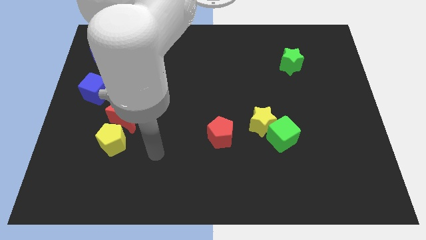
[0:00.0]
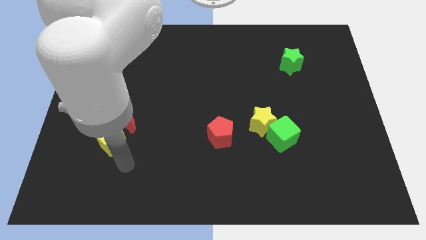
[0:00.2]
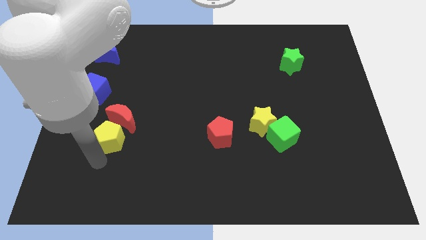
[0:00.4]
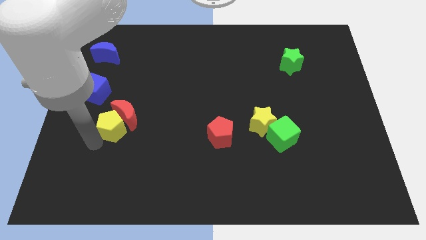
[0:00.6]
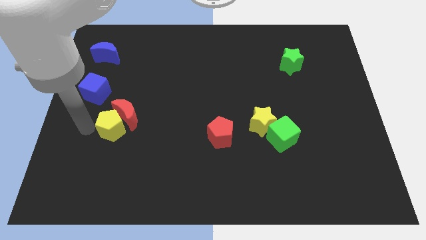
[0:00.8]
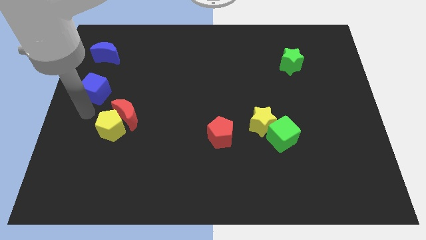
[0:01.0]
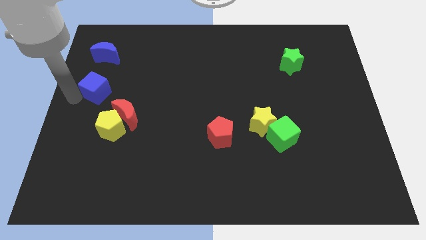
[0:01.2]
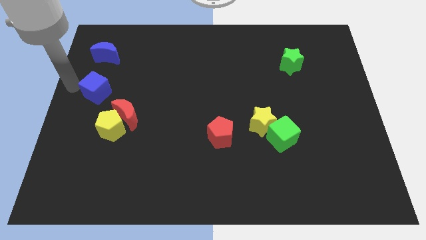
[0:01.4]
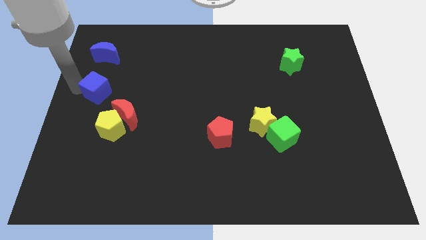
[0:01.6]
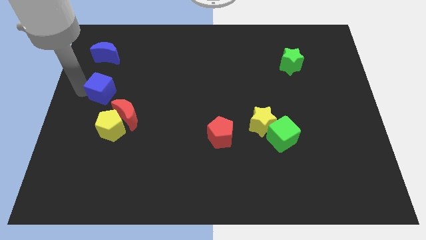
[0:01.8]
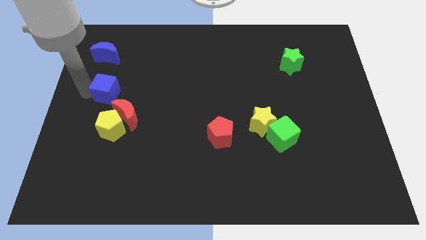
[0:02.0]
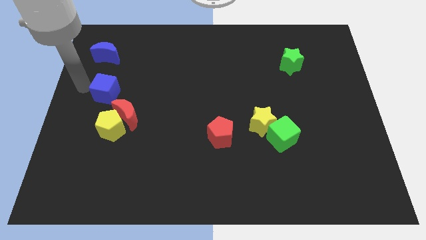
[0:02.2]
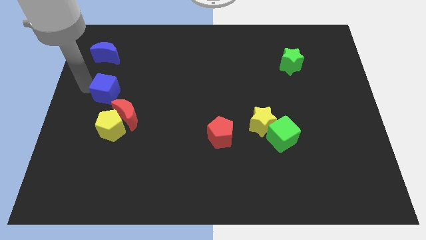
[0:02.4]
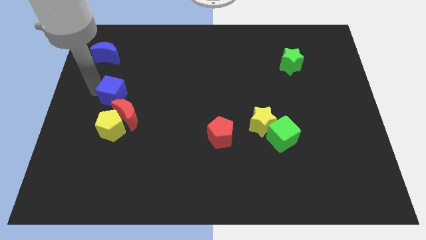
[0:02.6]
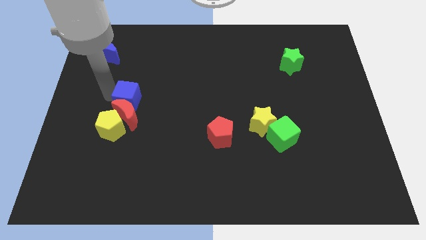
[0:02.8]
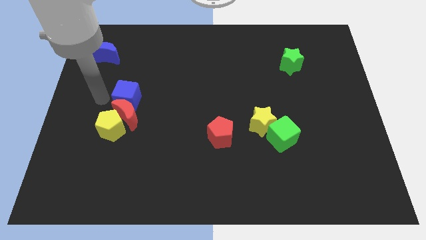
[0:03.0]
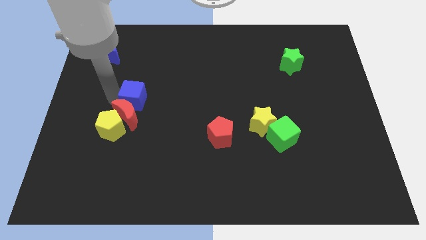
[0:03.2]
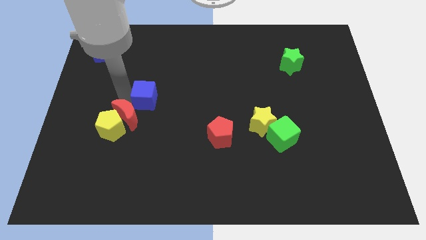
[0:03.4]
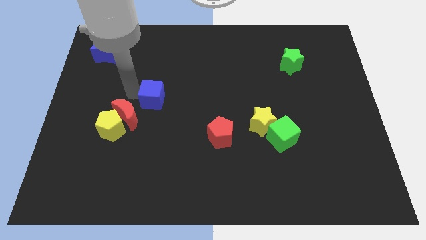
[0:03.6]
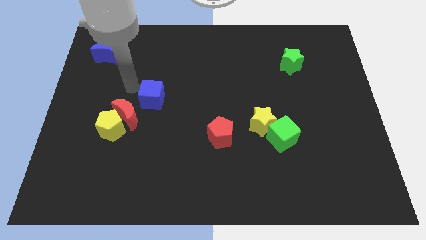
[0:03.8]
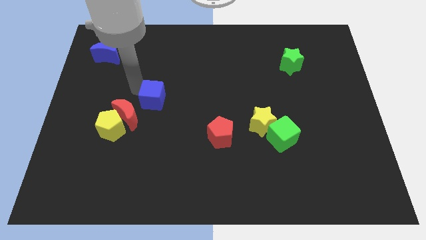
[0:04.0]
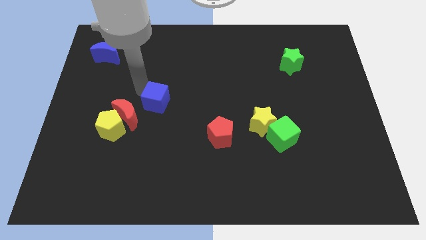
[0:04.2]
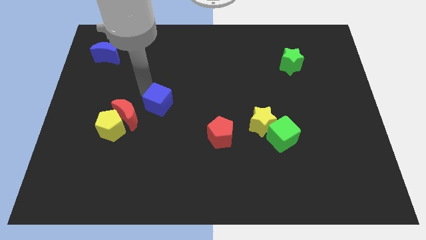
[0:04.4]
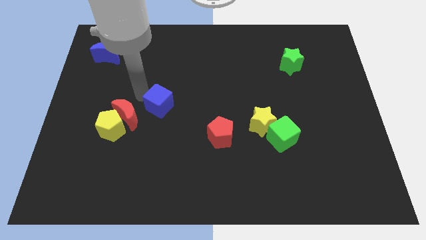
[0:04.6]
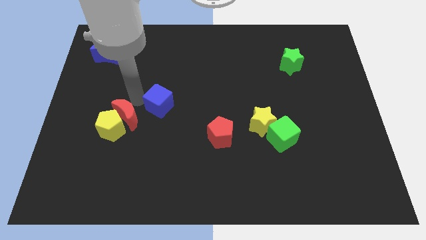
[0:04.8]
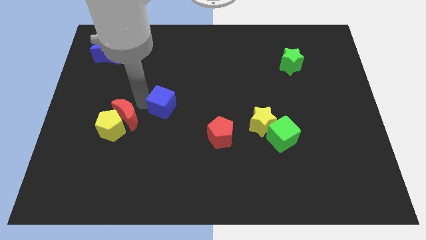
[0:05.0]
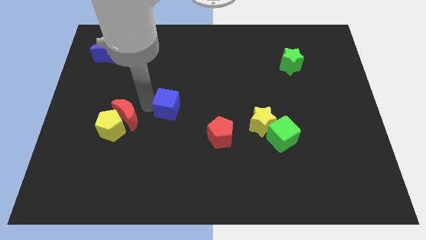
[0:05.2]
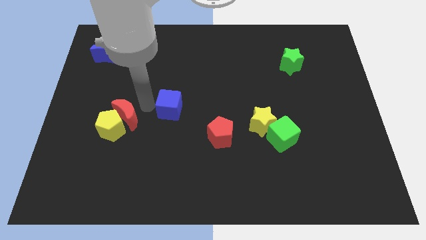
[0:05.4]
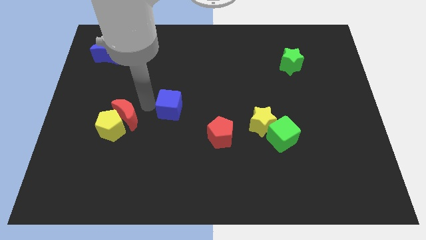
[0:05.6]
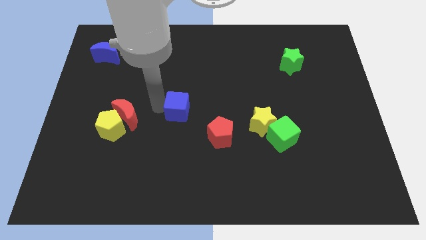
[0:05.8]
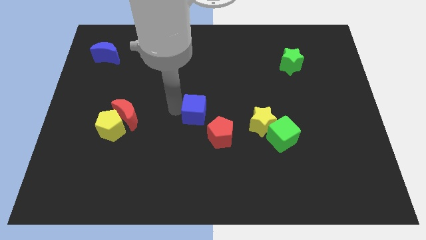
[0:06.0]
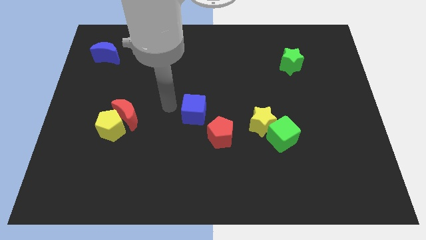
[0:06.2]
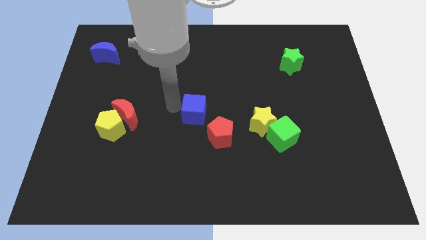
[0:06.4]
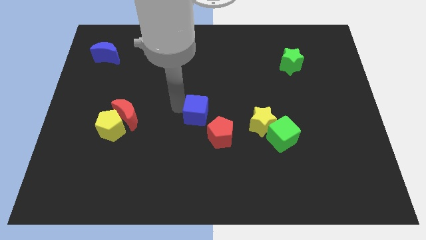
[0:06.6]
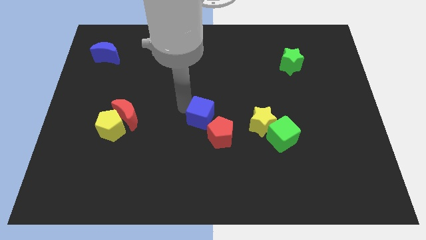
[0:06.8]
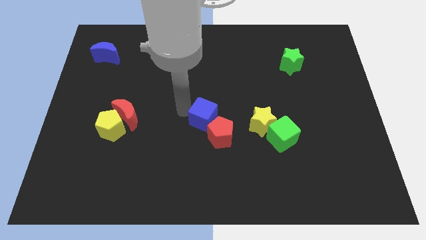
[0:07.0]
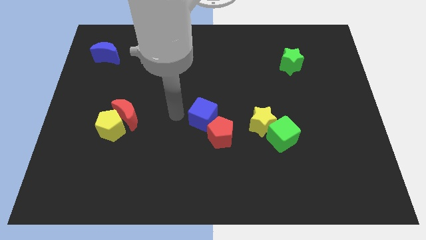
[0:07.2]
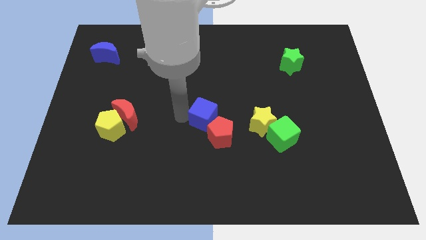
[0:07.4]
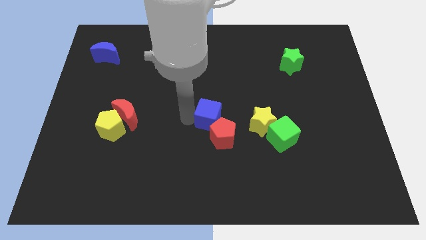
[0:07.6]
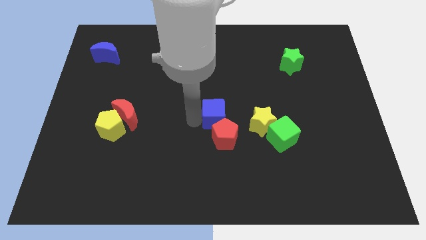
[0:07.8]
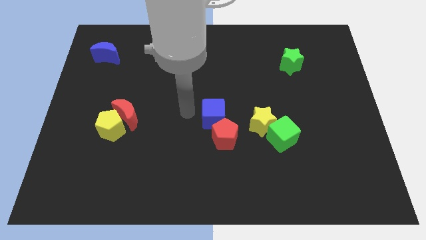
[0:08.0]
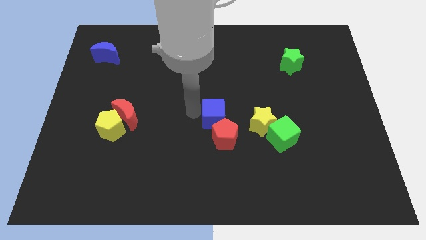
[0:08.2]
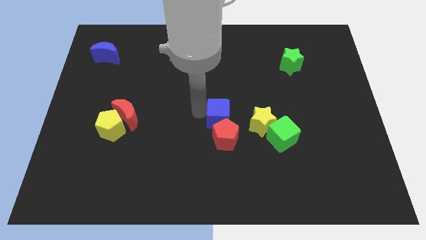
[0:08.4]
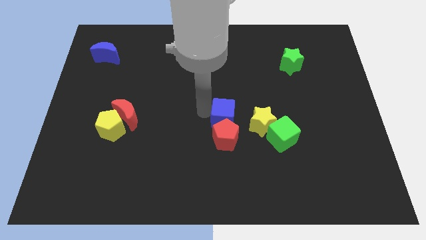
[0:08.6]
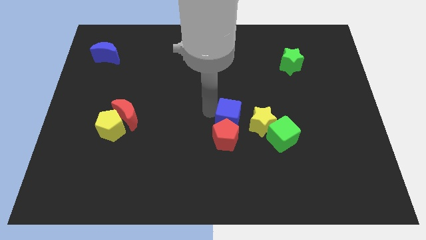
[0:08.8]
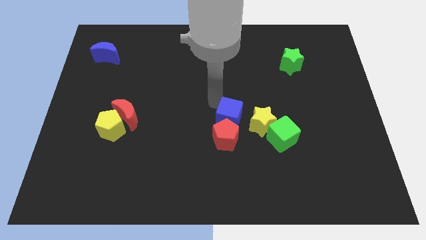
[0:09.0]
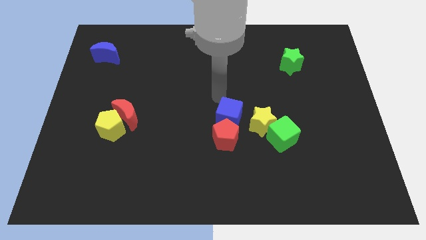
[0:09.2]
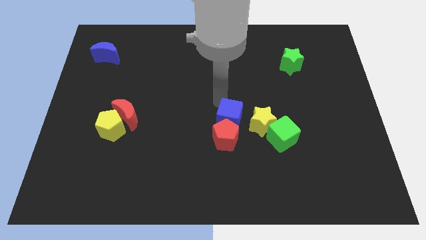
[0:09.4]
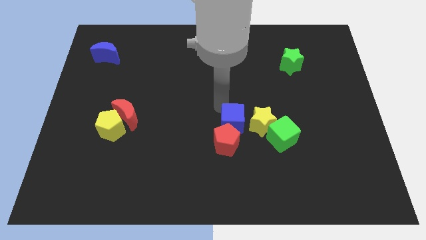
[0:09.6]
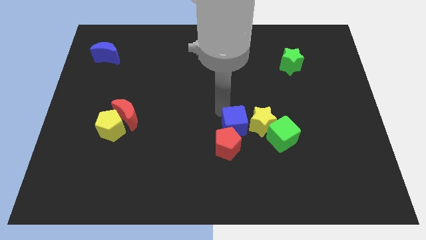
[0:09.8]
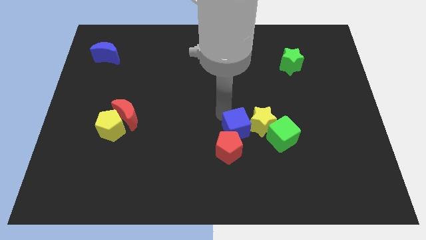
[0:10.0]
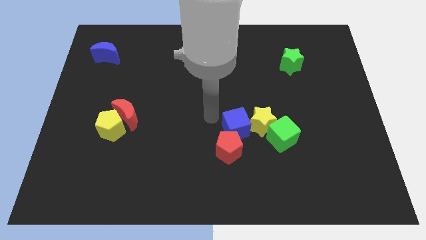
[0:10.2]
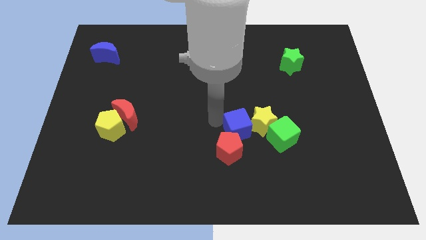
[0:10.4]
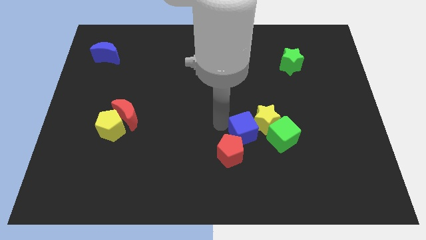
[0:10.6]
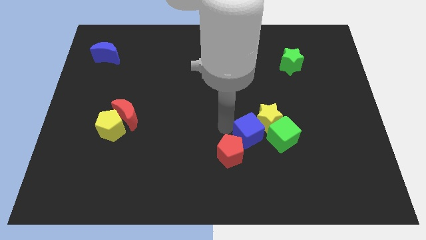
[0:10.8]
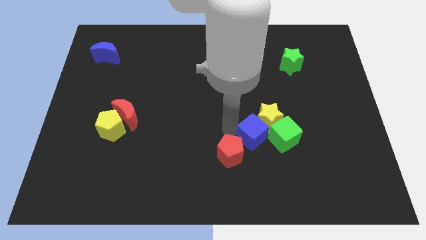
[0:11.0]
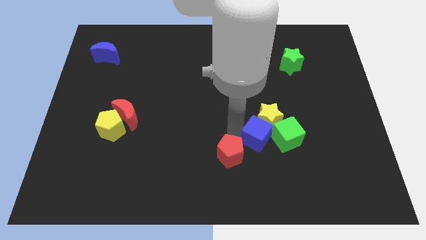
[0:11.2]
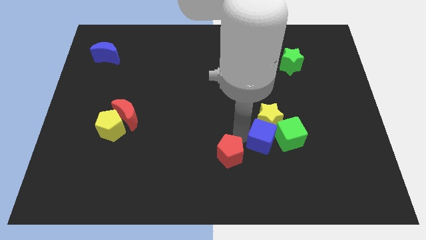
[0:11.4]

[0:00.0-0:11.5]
slide the blue cube to the green cube
